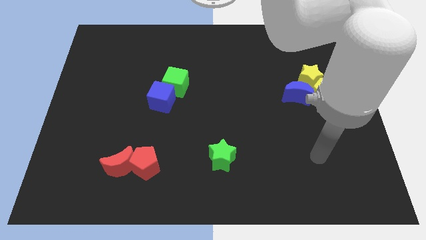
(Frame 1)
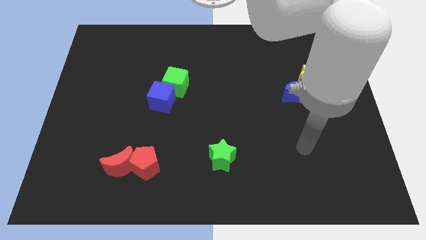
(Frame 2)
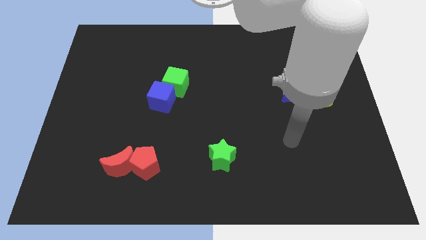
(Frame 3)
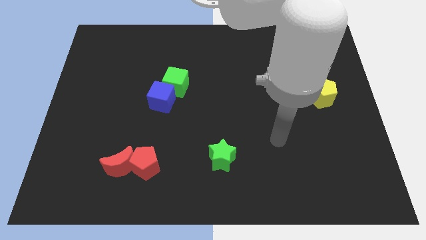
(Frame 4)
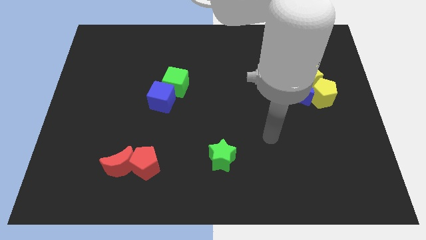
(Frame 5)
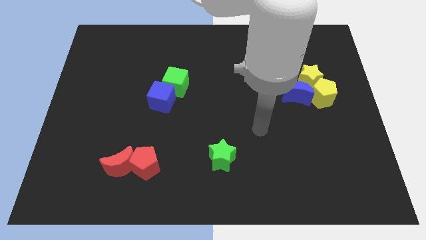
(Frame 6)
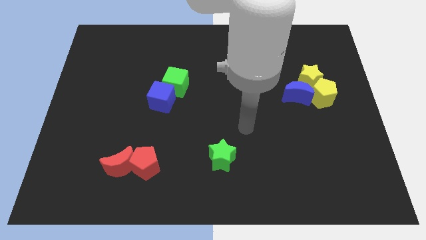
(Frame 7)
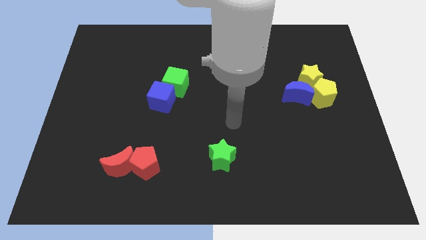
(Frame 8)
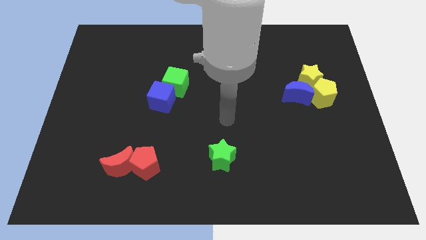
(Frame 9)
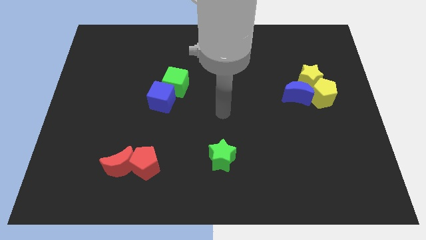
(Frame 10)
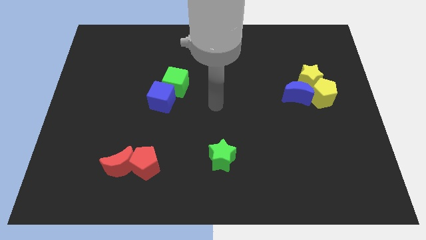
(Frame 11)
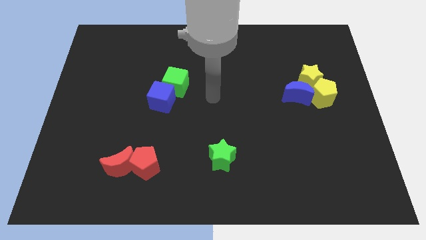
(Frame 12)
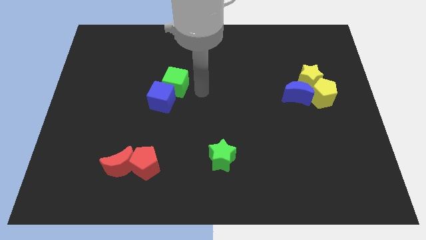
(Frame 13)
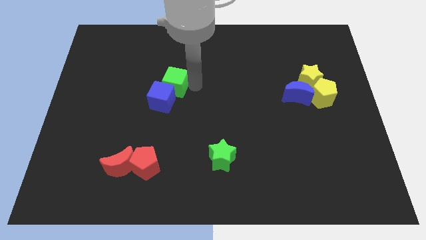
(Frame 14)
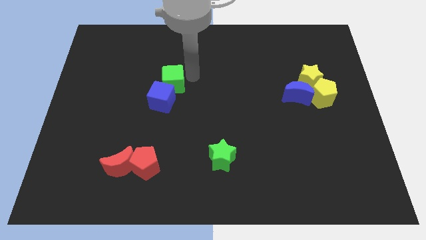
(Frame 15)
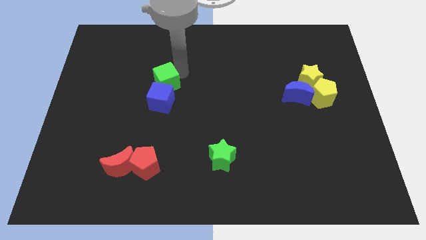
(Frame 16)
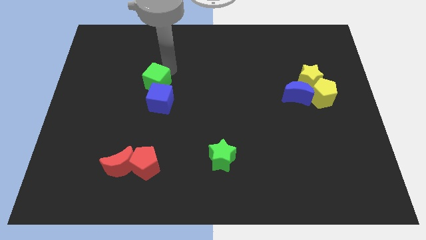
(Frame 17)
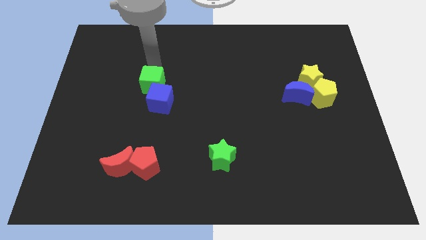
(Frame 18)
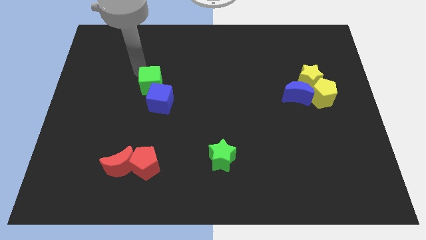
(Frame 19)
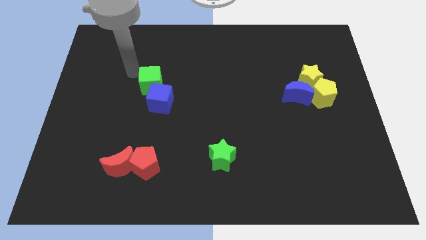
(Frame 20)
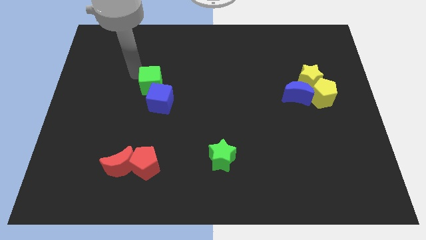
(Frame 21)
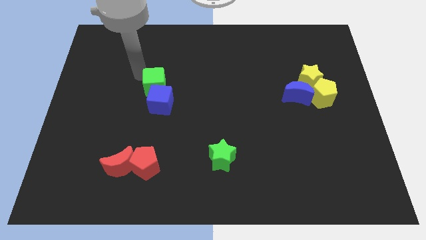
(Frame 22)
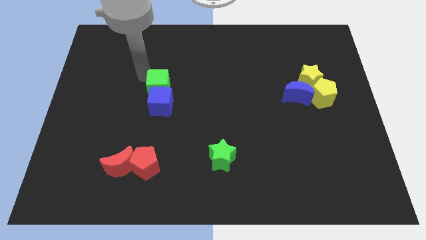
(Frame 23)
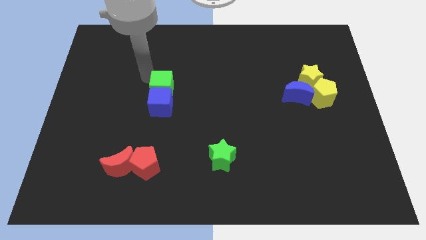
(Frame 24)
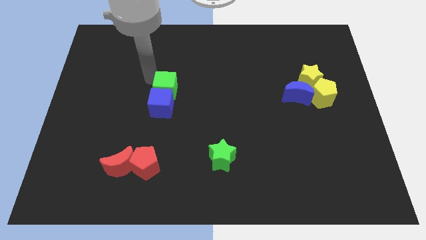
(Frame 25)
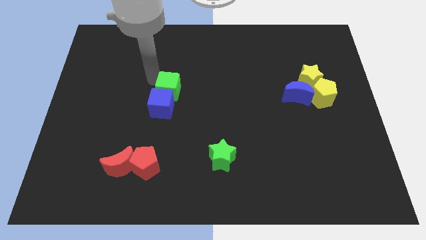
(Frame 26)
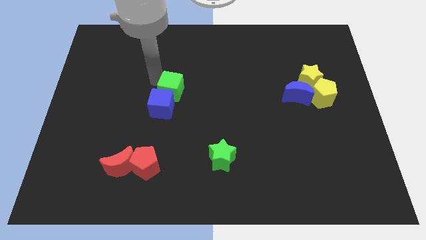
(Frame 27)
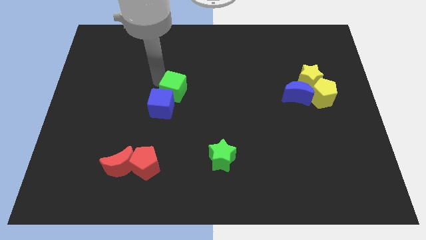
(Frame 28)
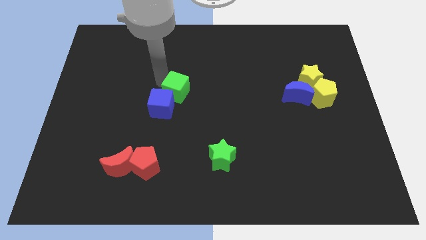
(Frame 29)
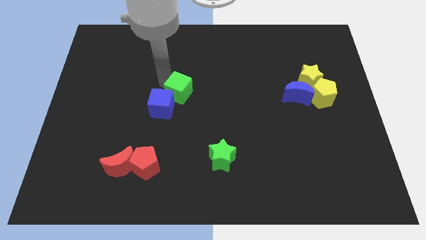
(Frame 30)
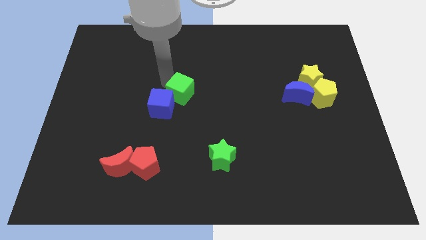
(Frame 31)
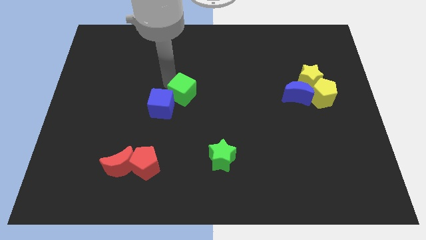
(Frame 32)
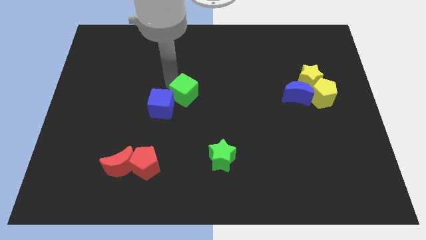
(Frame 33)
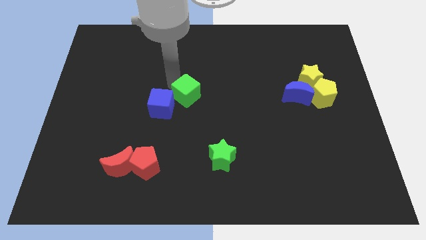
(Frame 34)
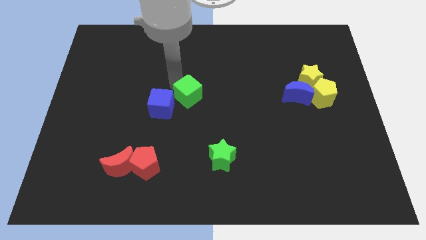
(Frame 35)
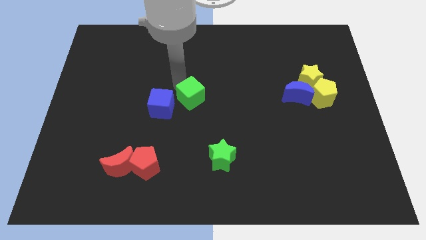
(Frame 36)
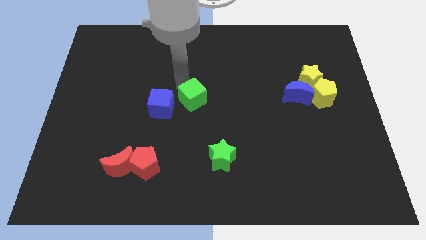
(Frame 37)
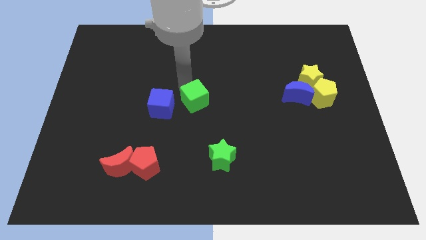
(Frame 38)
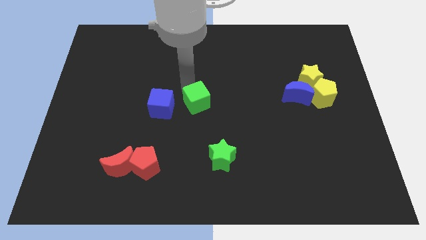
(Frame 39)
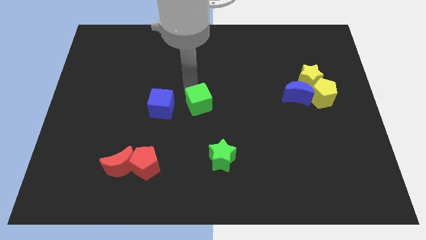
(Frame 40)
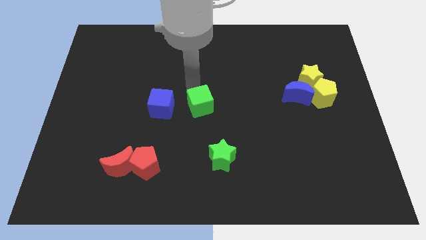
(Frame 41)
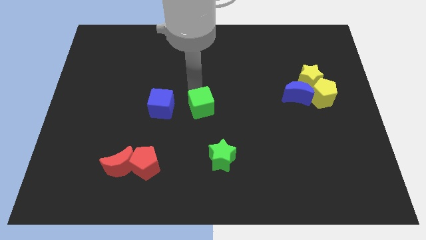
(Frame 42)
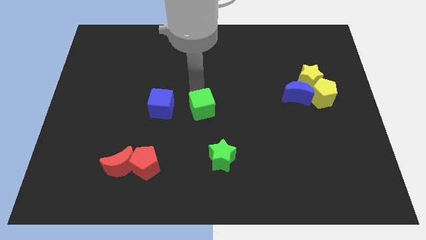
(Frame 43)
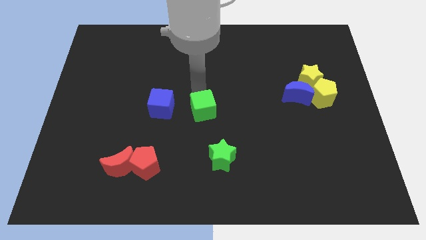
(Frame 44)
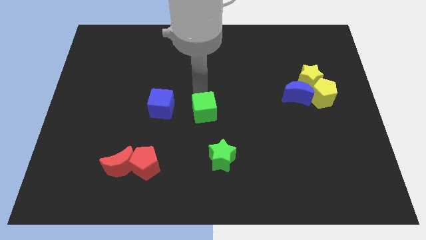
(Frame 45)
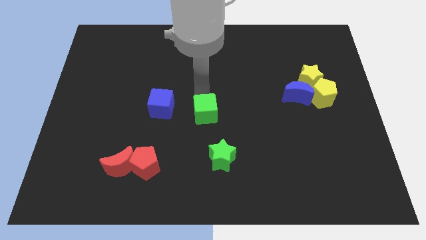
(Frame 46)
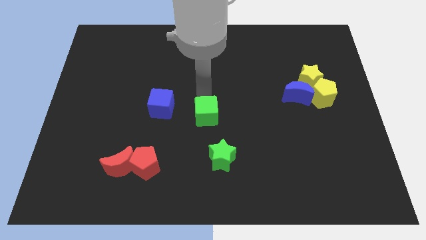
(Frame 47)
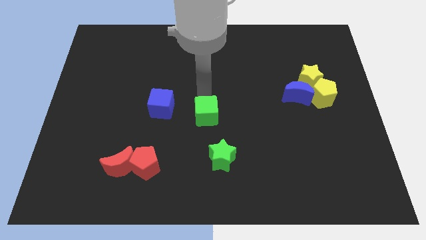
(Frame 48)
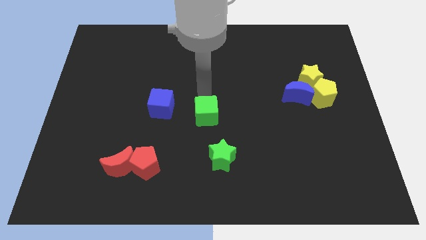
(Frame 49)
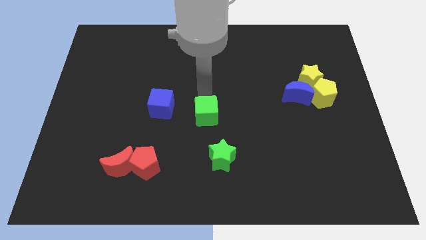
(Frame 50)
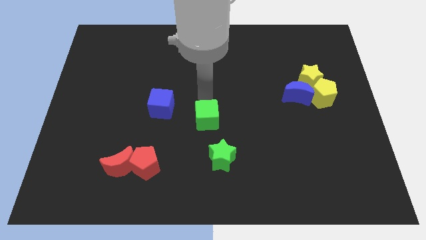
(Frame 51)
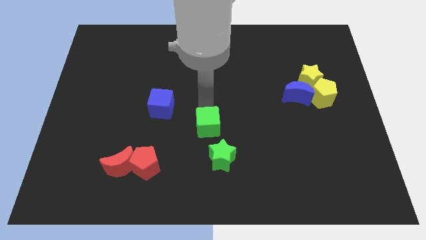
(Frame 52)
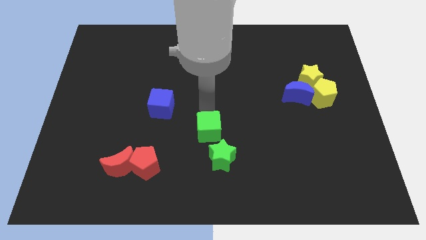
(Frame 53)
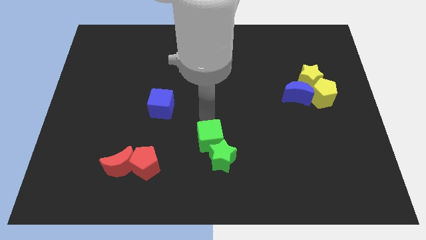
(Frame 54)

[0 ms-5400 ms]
slide the green cube close to the green star

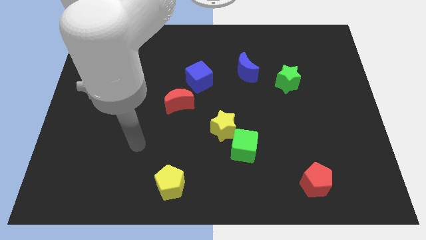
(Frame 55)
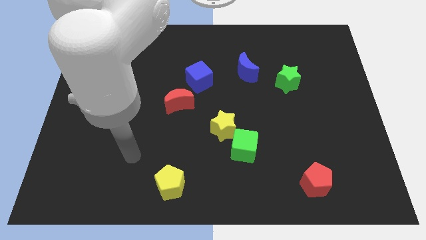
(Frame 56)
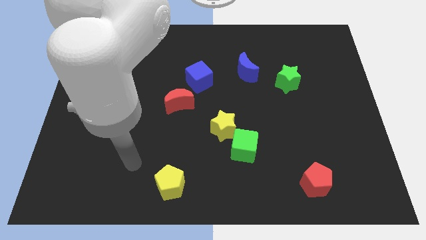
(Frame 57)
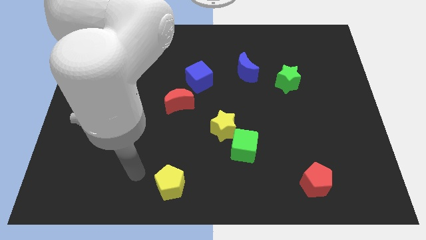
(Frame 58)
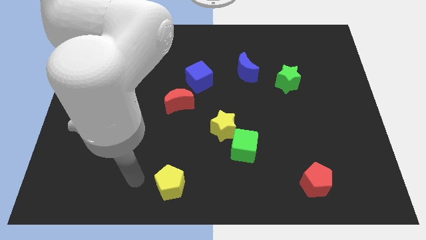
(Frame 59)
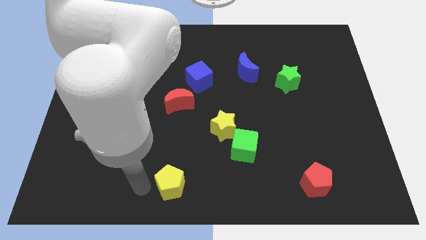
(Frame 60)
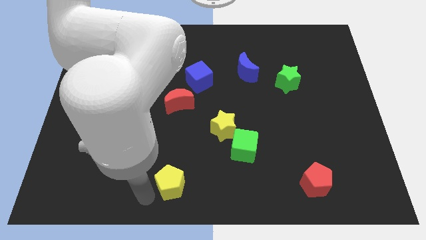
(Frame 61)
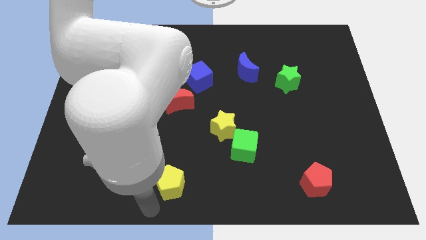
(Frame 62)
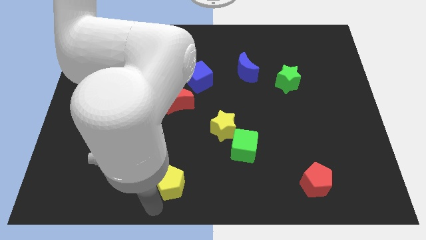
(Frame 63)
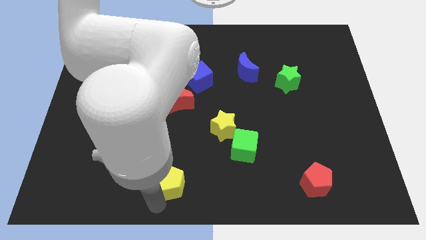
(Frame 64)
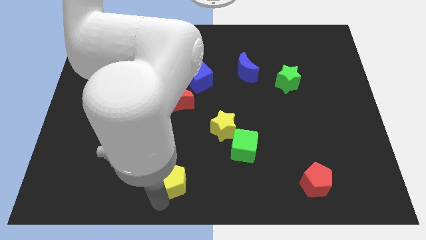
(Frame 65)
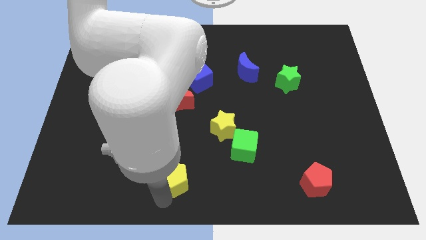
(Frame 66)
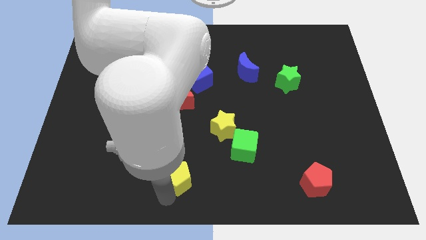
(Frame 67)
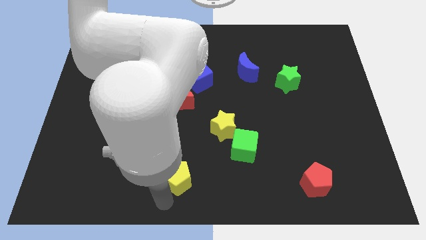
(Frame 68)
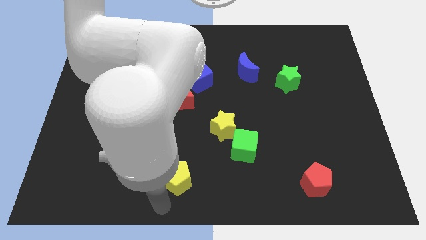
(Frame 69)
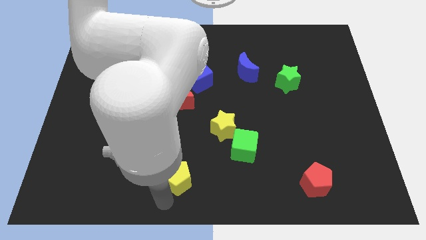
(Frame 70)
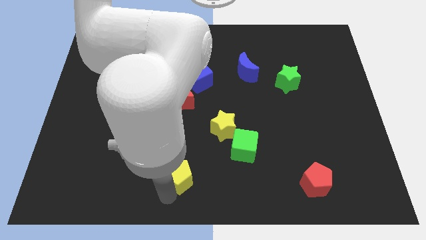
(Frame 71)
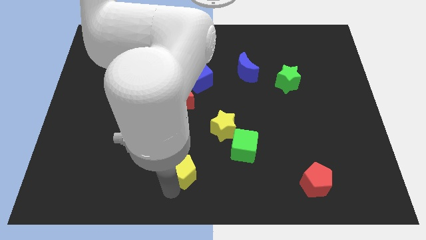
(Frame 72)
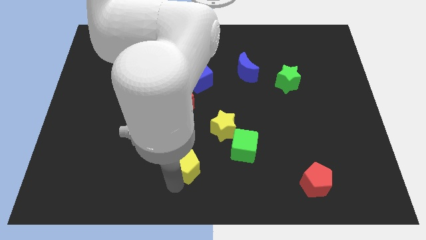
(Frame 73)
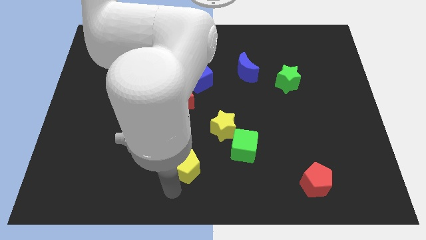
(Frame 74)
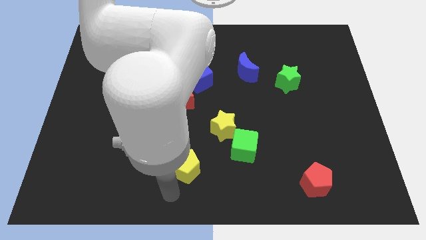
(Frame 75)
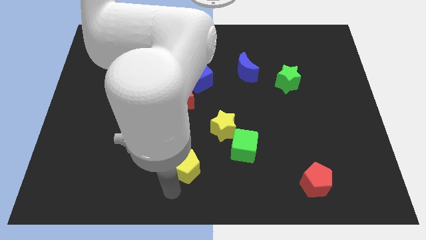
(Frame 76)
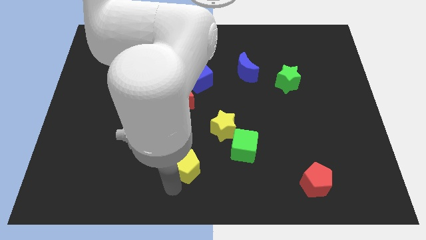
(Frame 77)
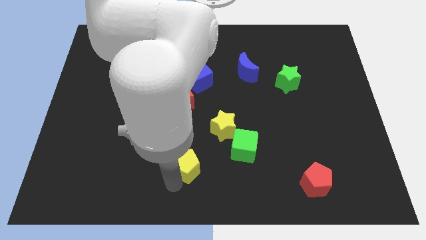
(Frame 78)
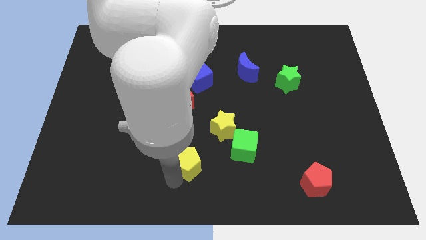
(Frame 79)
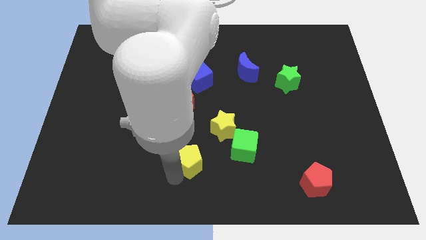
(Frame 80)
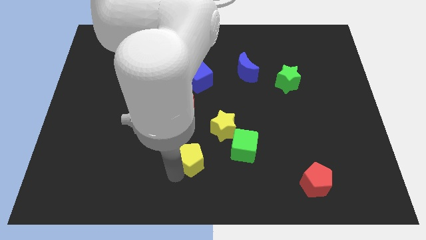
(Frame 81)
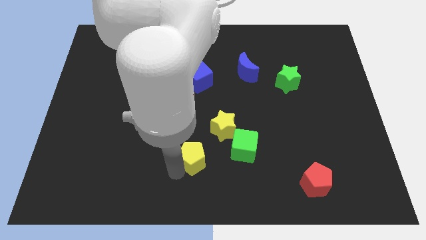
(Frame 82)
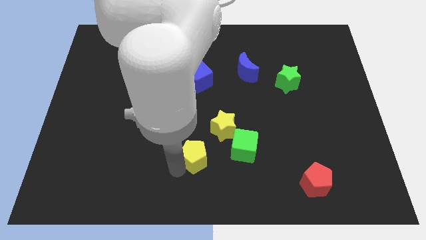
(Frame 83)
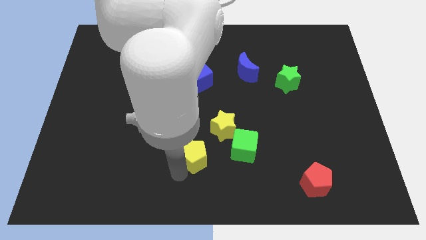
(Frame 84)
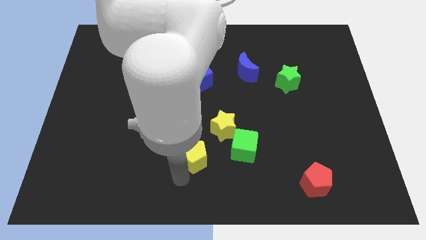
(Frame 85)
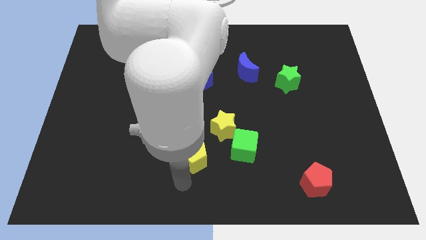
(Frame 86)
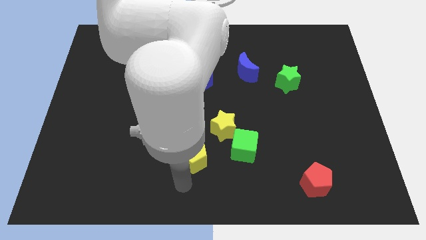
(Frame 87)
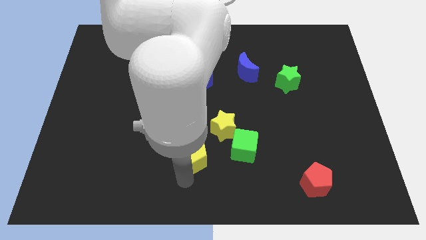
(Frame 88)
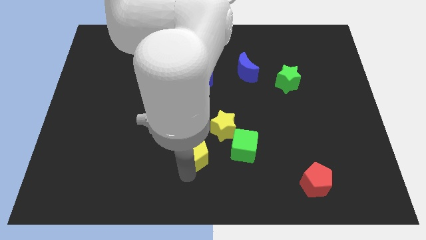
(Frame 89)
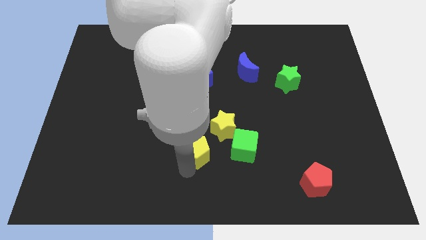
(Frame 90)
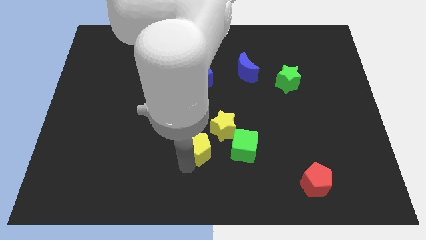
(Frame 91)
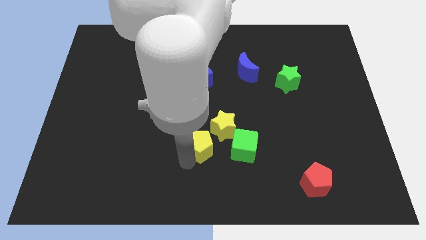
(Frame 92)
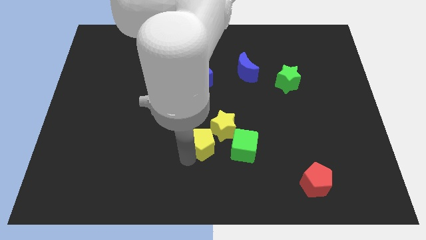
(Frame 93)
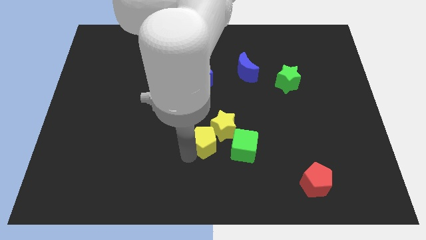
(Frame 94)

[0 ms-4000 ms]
move the yellow pentagon next to the yellow star
